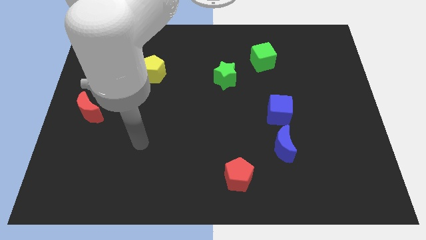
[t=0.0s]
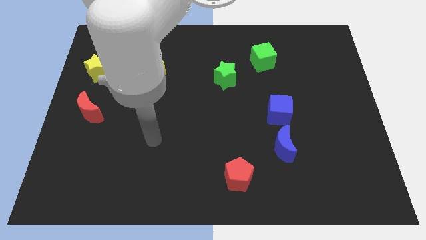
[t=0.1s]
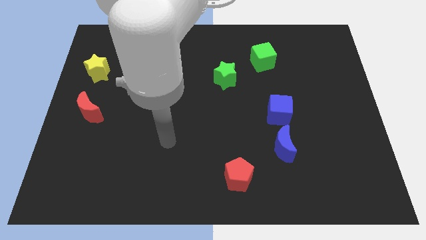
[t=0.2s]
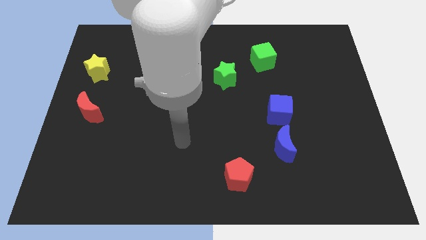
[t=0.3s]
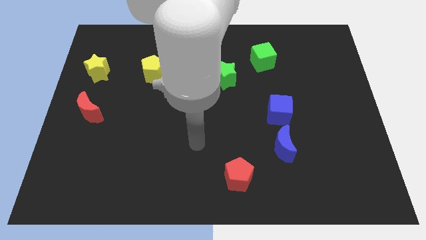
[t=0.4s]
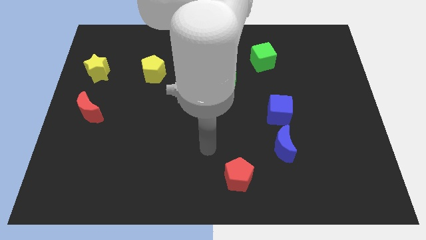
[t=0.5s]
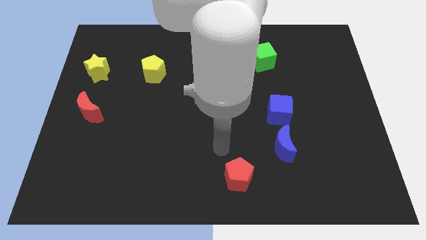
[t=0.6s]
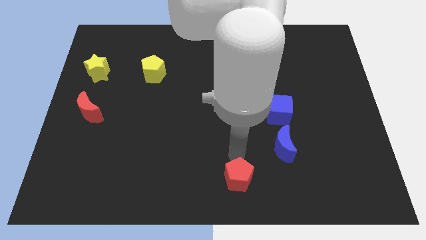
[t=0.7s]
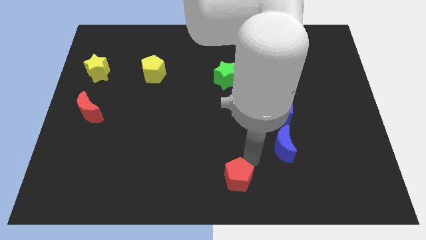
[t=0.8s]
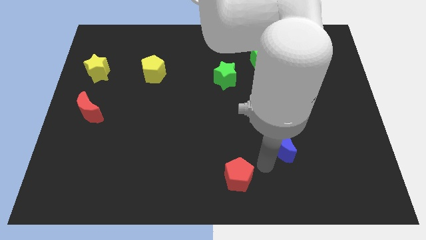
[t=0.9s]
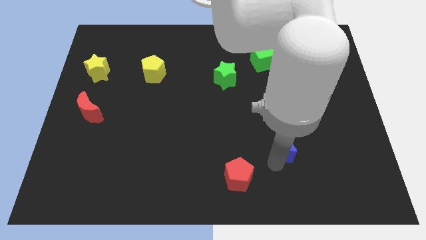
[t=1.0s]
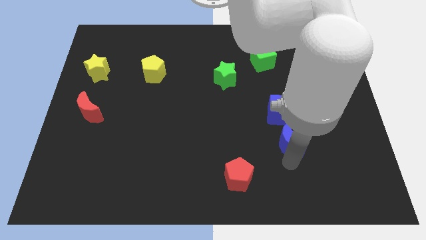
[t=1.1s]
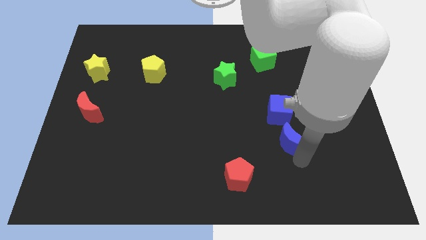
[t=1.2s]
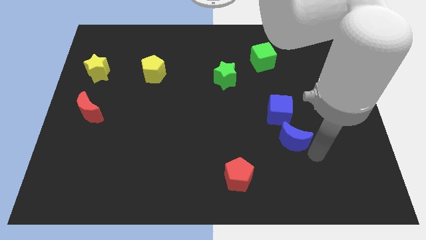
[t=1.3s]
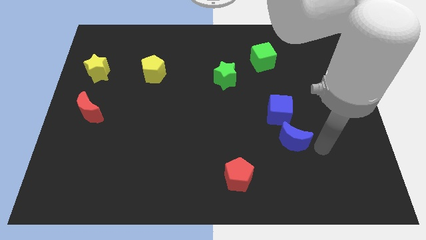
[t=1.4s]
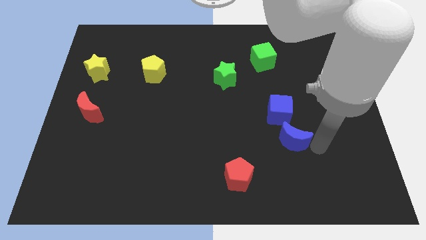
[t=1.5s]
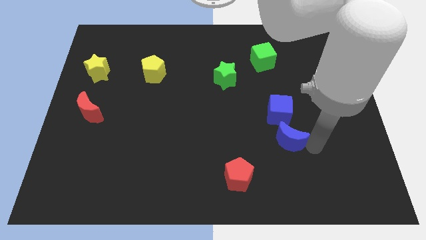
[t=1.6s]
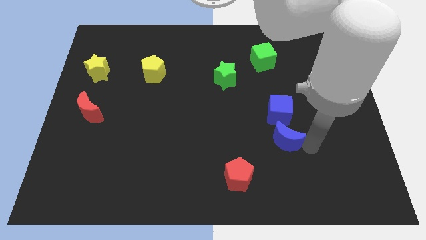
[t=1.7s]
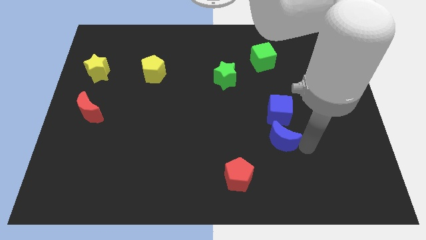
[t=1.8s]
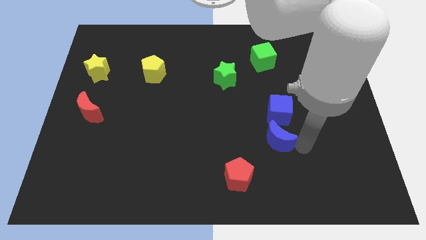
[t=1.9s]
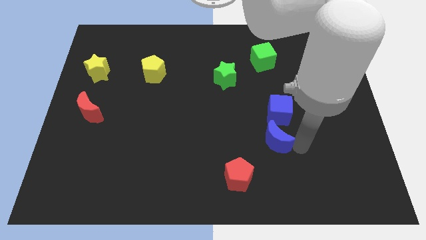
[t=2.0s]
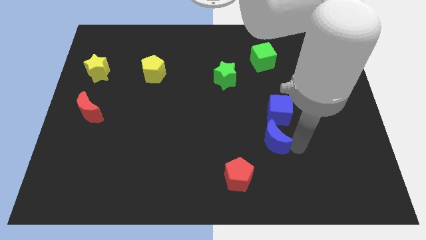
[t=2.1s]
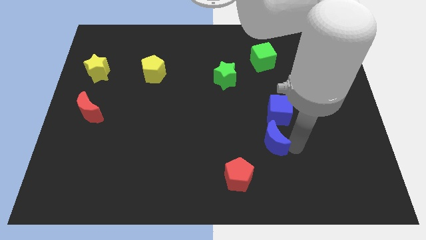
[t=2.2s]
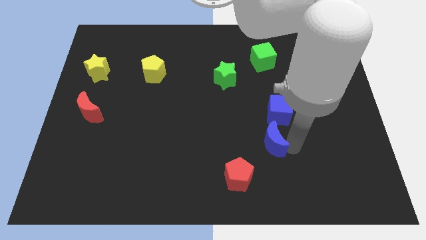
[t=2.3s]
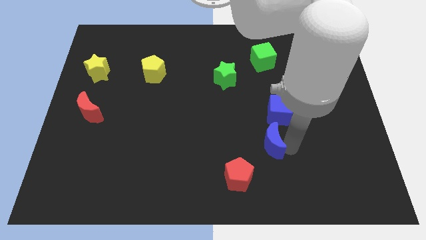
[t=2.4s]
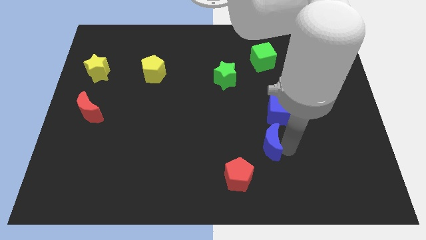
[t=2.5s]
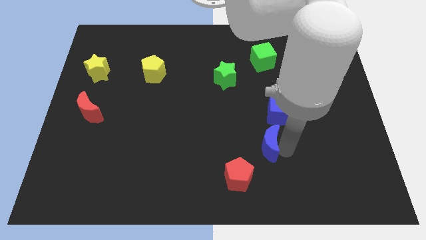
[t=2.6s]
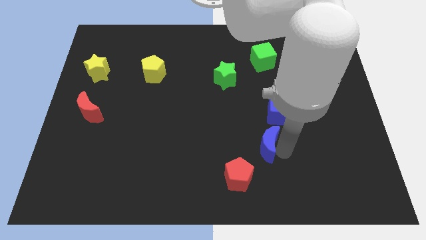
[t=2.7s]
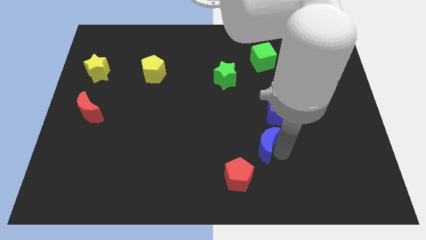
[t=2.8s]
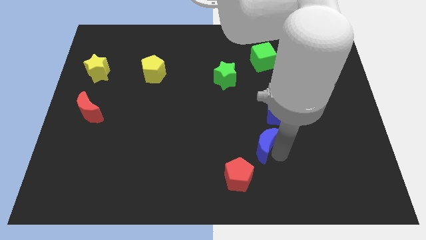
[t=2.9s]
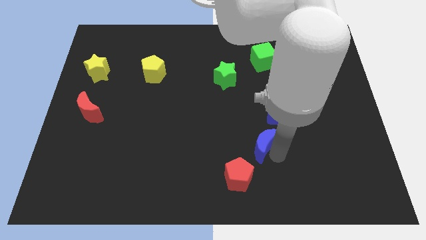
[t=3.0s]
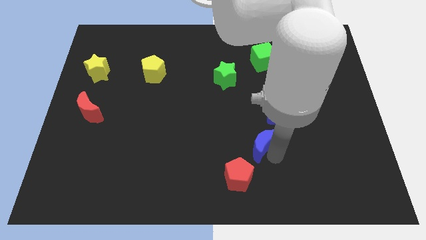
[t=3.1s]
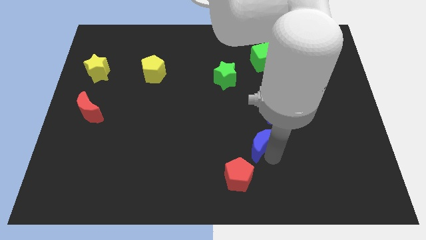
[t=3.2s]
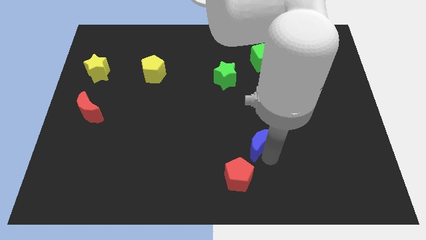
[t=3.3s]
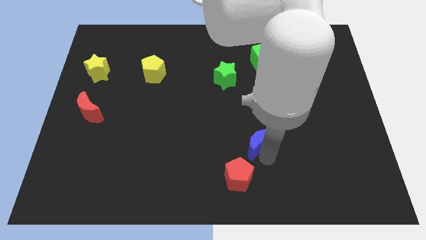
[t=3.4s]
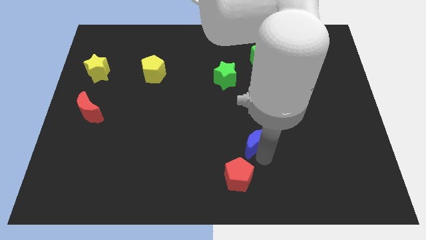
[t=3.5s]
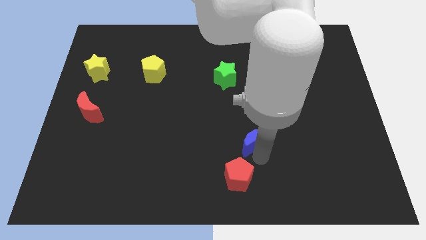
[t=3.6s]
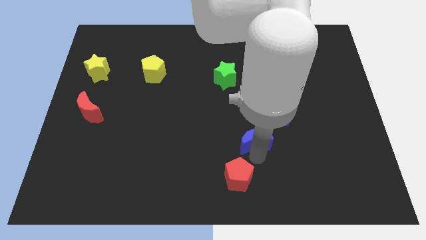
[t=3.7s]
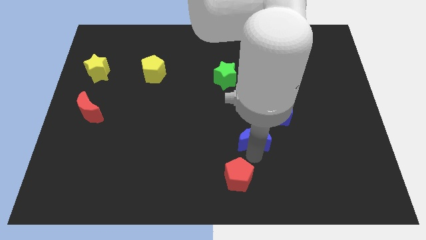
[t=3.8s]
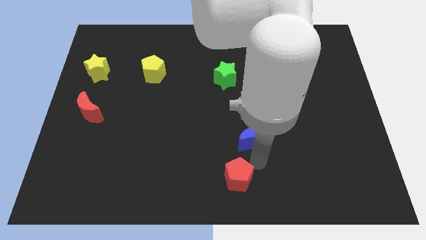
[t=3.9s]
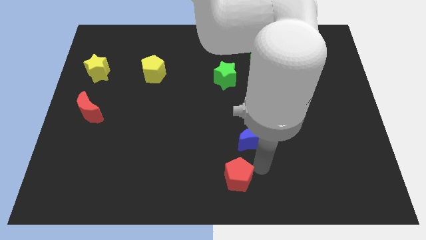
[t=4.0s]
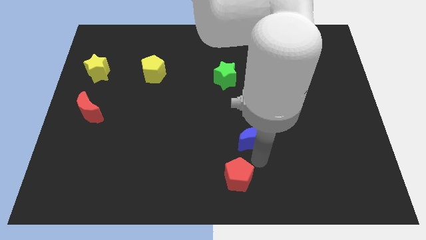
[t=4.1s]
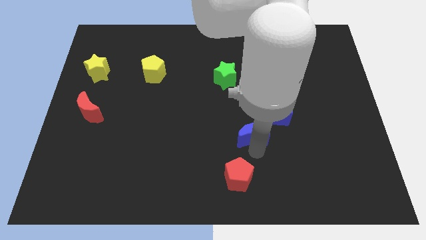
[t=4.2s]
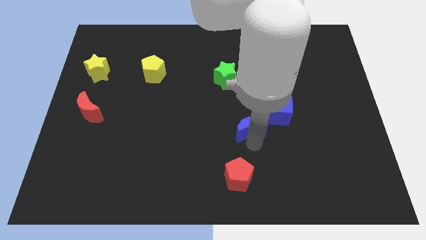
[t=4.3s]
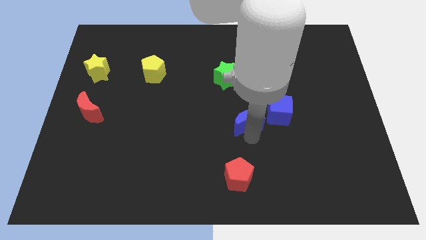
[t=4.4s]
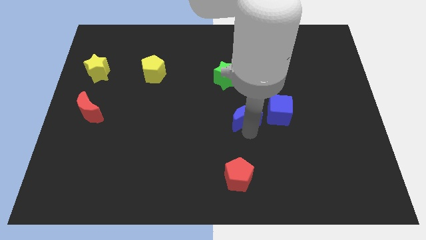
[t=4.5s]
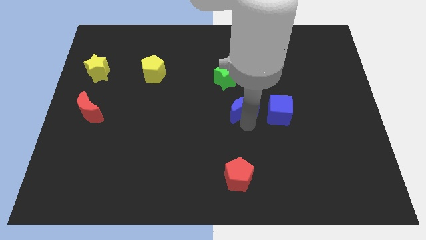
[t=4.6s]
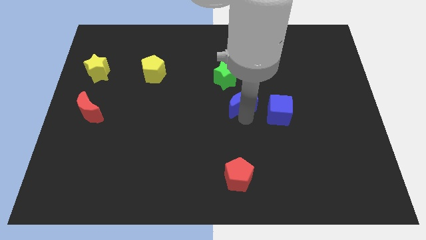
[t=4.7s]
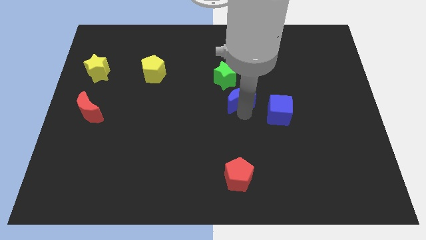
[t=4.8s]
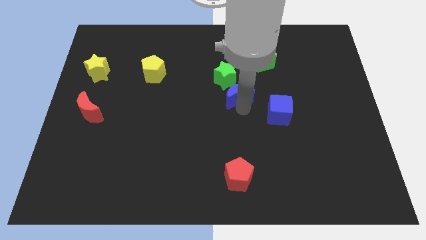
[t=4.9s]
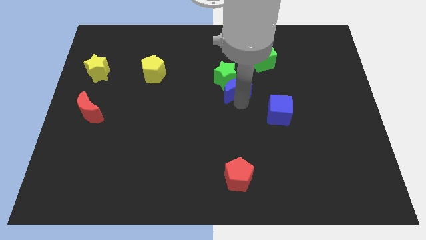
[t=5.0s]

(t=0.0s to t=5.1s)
move the blue moon close to the green star

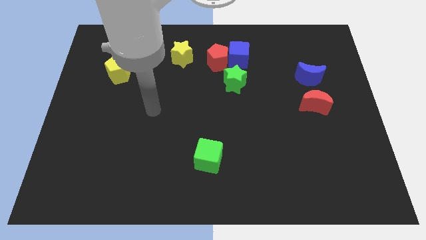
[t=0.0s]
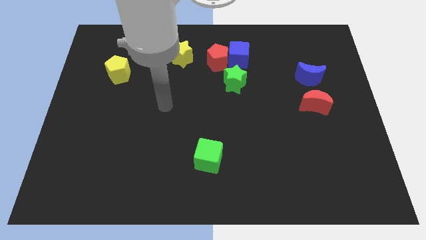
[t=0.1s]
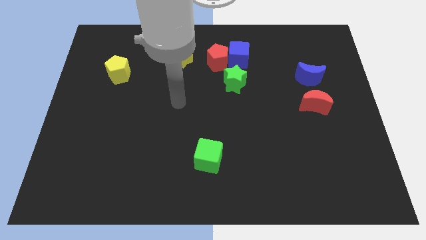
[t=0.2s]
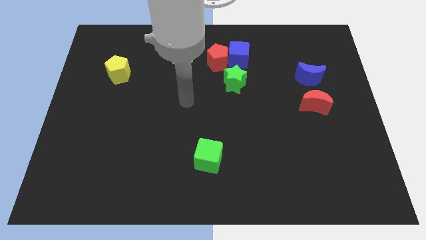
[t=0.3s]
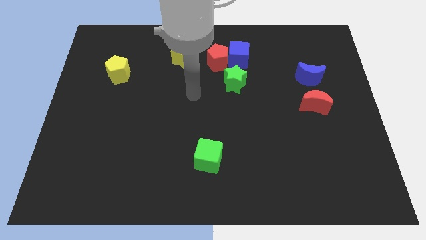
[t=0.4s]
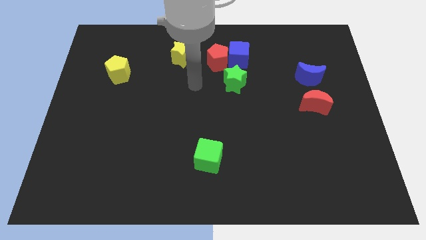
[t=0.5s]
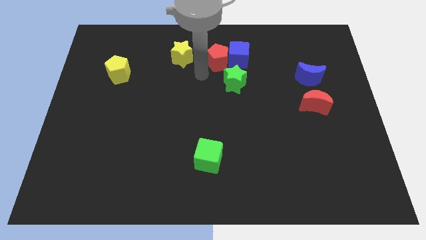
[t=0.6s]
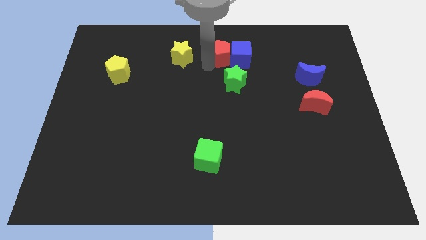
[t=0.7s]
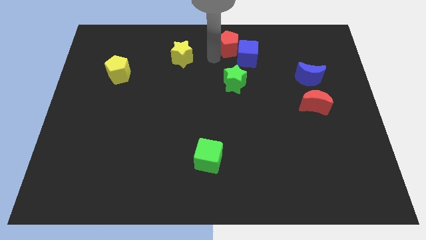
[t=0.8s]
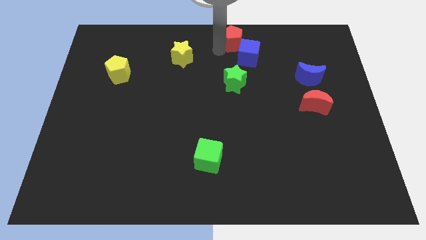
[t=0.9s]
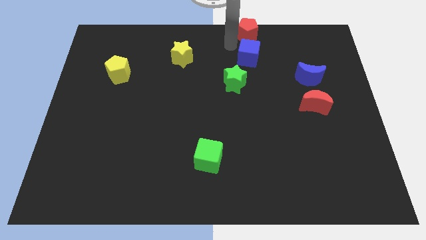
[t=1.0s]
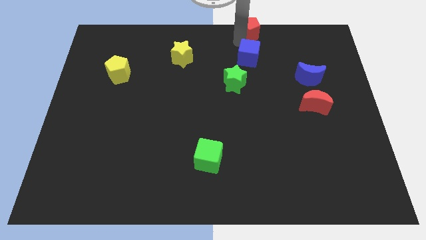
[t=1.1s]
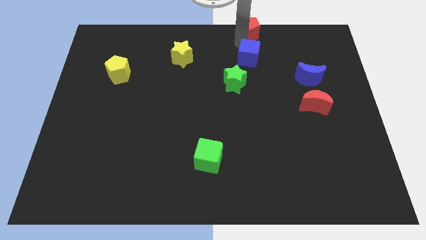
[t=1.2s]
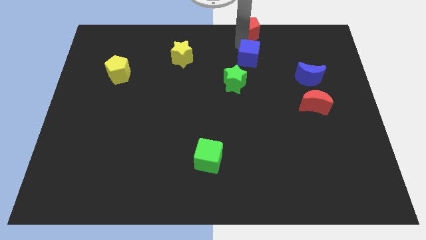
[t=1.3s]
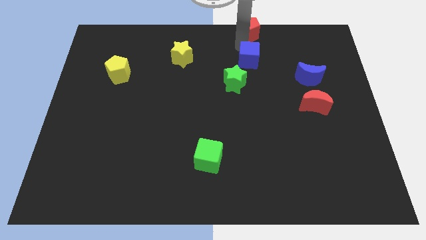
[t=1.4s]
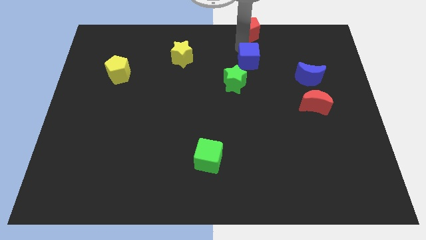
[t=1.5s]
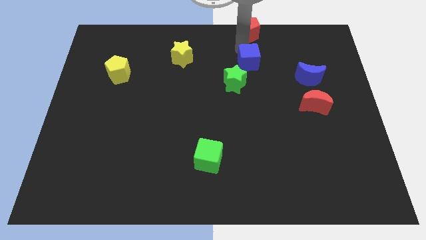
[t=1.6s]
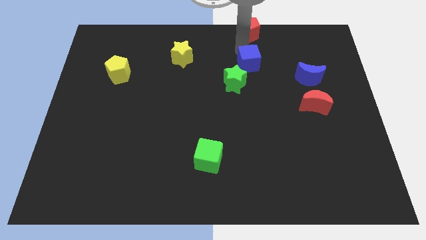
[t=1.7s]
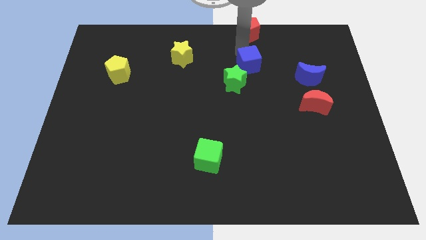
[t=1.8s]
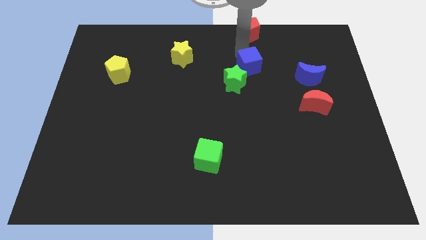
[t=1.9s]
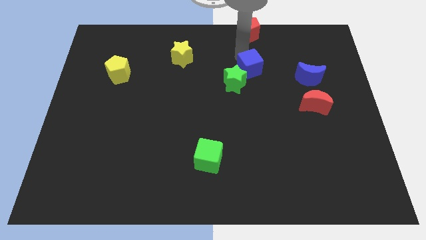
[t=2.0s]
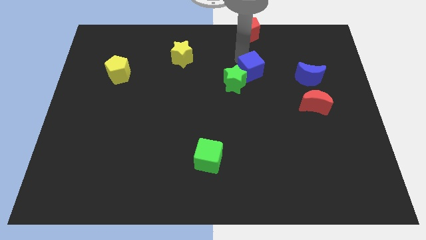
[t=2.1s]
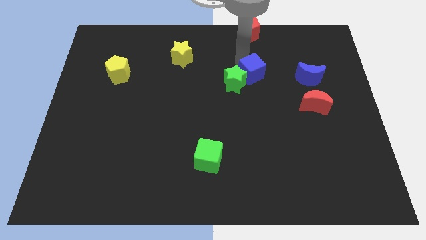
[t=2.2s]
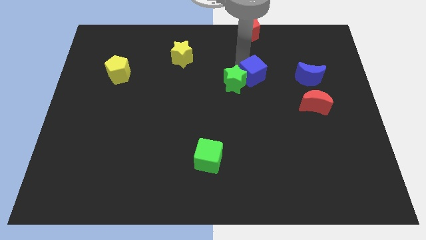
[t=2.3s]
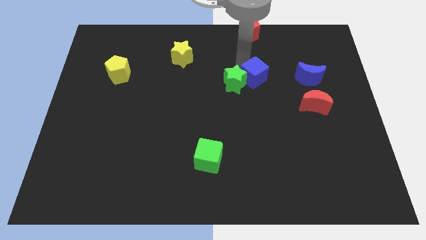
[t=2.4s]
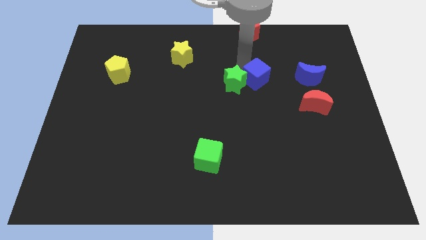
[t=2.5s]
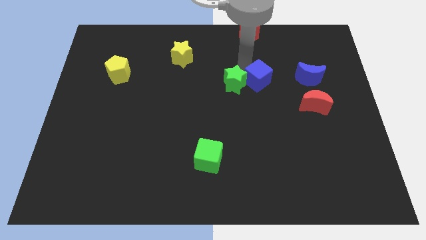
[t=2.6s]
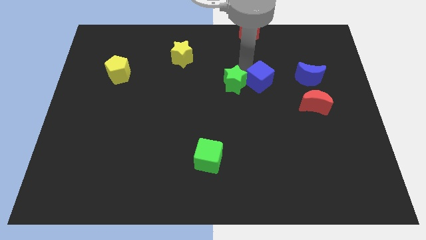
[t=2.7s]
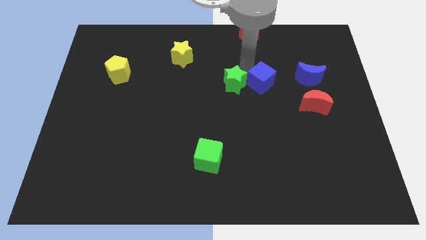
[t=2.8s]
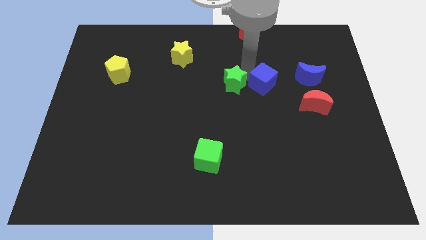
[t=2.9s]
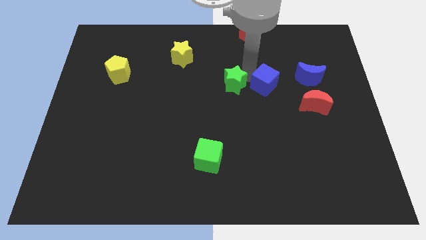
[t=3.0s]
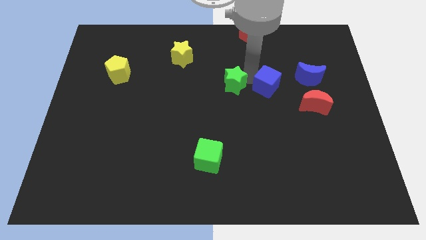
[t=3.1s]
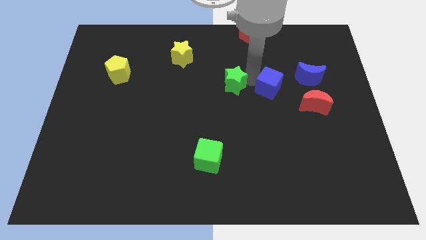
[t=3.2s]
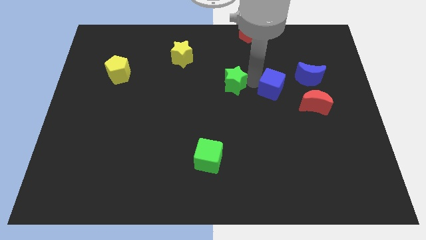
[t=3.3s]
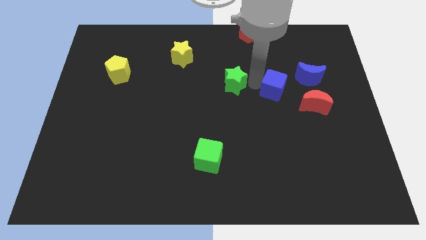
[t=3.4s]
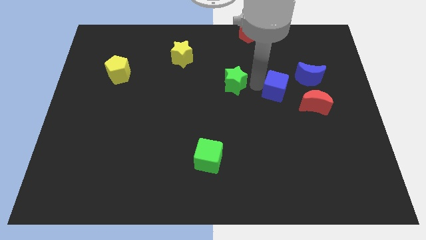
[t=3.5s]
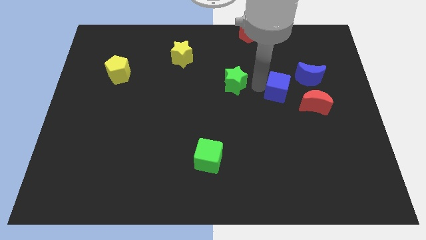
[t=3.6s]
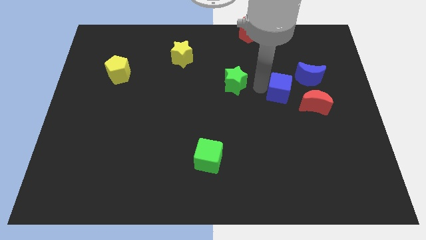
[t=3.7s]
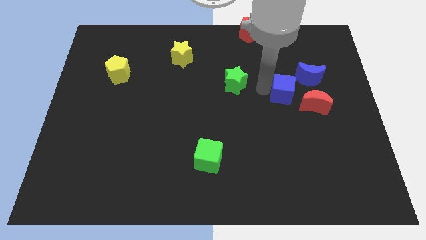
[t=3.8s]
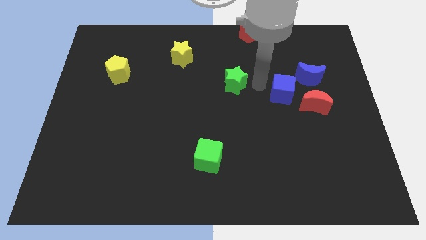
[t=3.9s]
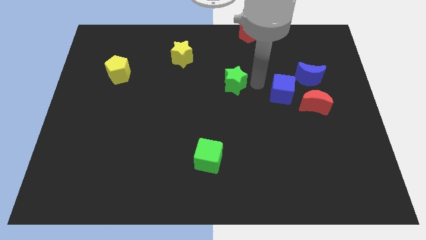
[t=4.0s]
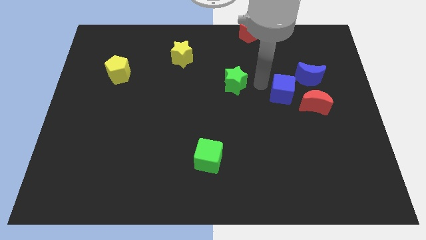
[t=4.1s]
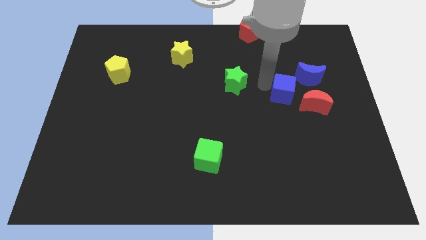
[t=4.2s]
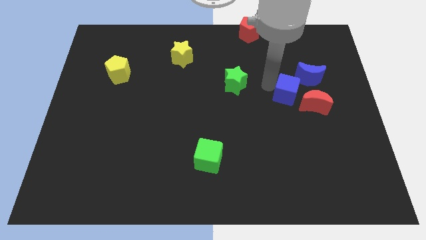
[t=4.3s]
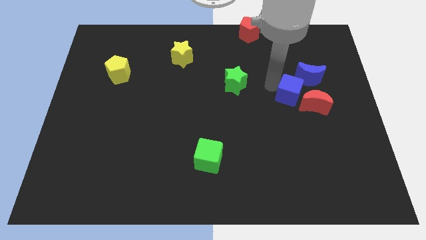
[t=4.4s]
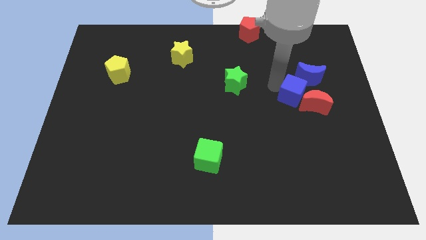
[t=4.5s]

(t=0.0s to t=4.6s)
slide the blue cube to the red moon
